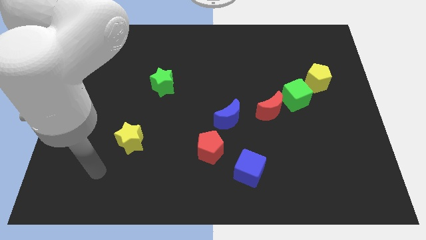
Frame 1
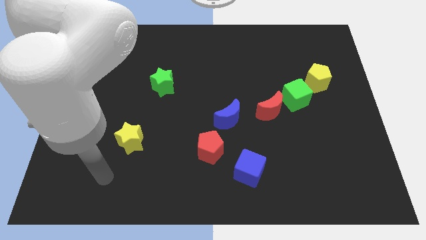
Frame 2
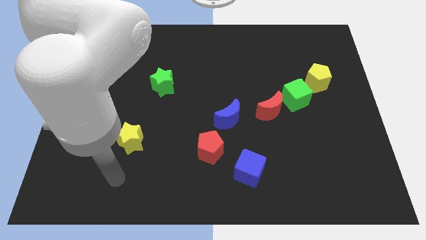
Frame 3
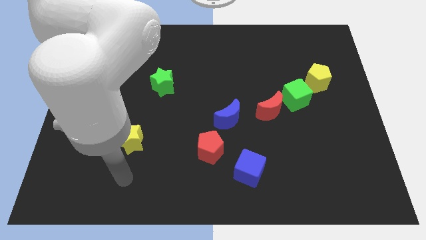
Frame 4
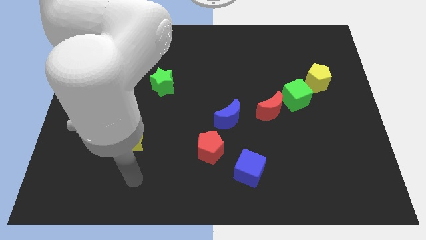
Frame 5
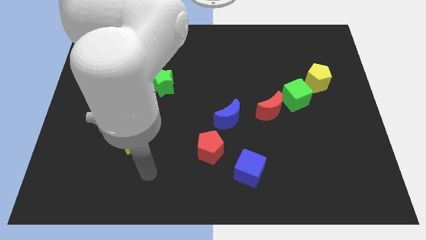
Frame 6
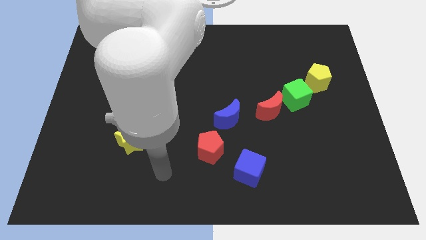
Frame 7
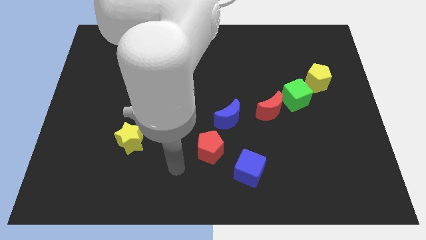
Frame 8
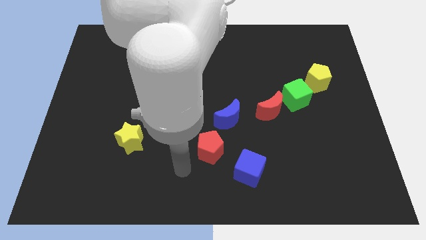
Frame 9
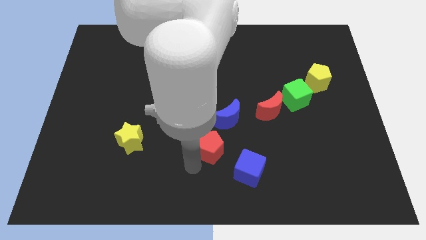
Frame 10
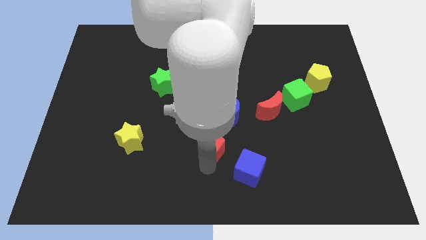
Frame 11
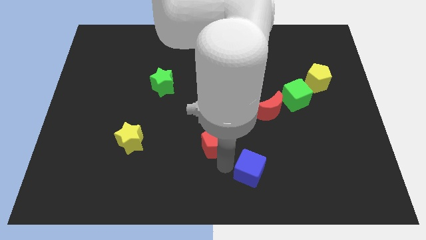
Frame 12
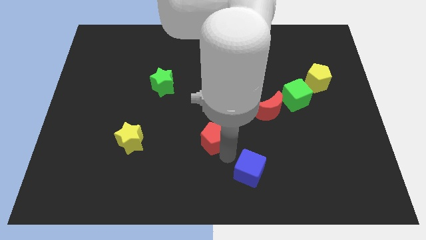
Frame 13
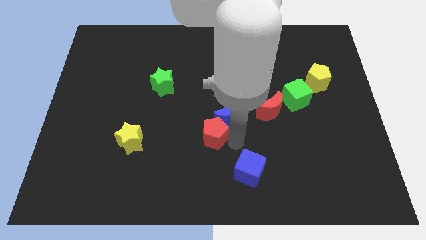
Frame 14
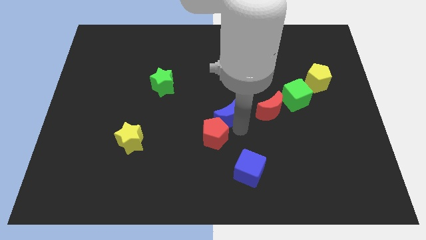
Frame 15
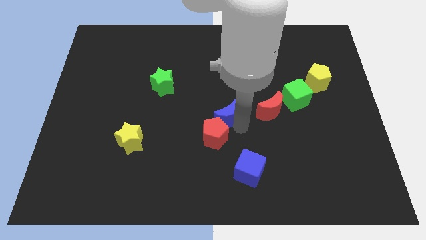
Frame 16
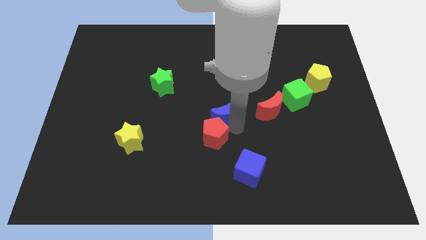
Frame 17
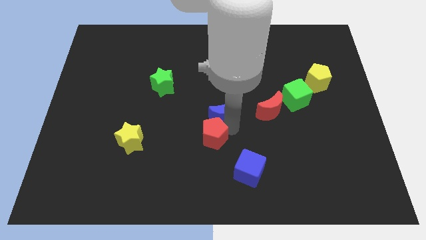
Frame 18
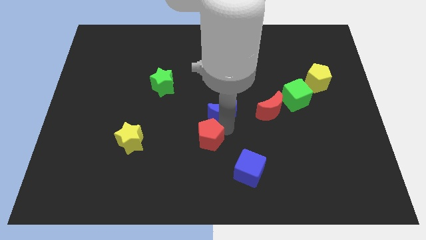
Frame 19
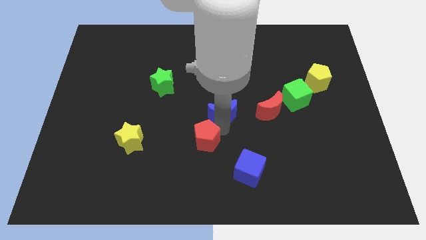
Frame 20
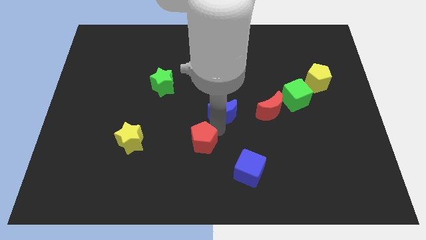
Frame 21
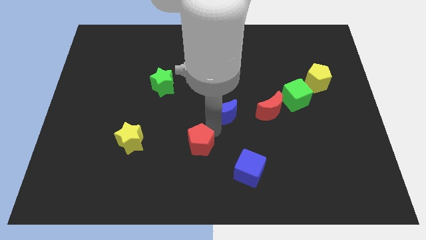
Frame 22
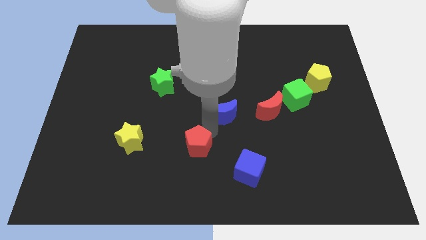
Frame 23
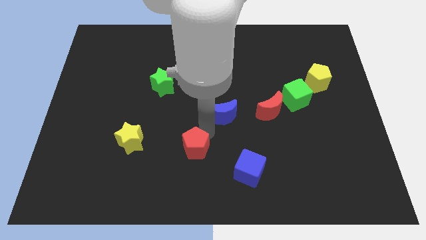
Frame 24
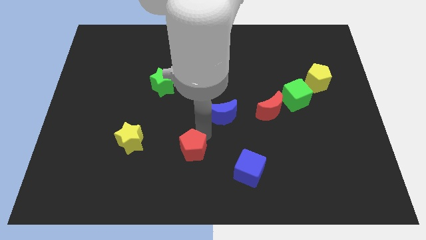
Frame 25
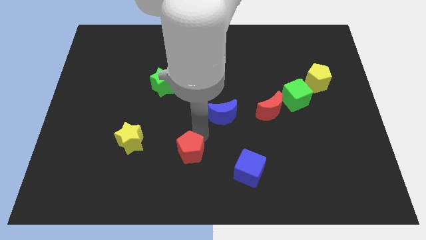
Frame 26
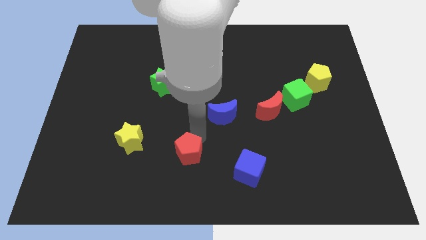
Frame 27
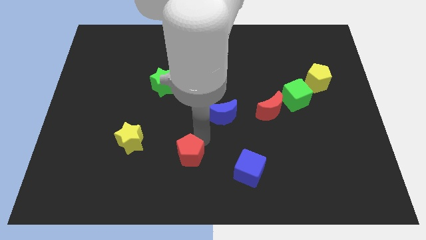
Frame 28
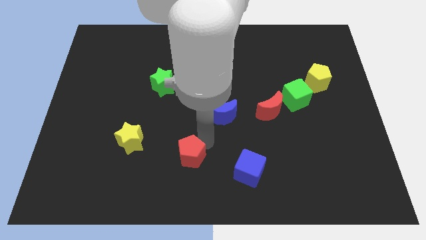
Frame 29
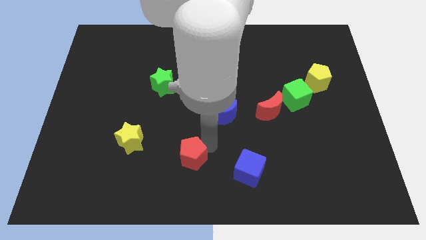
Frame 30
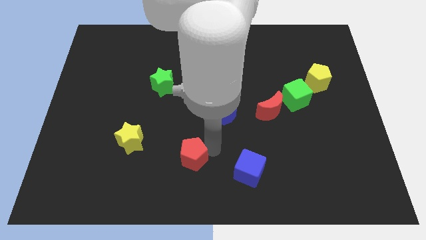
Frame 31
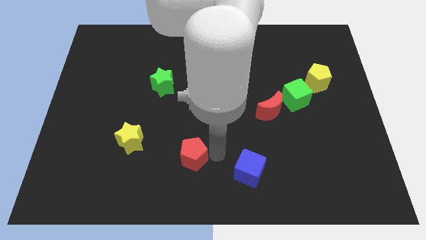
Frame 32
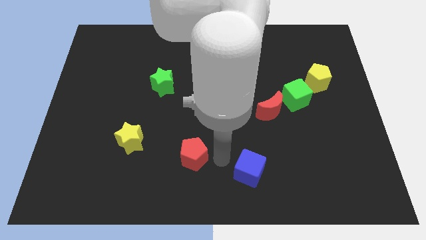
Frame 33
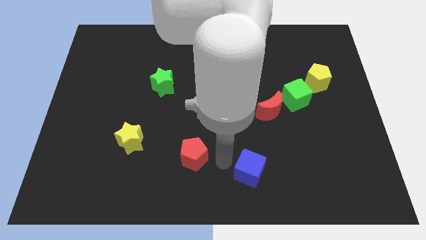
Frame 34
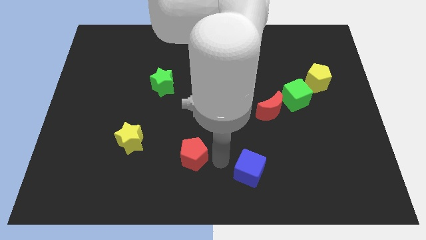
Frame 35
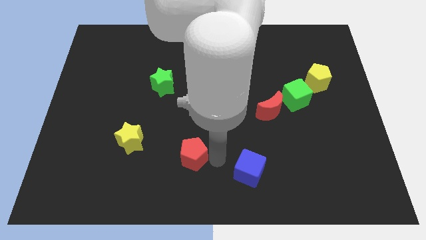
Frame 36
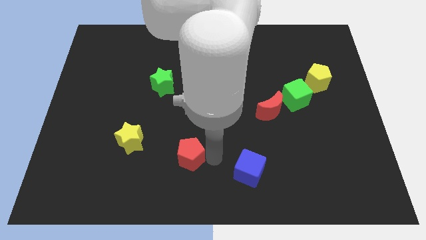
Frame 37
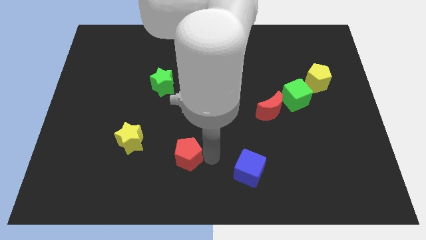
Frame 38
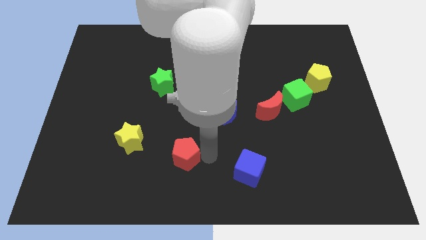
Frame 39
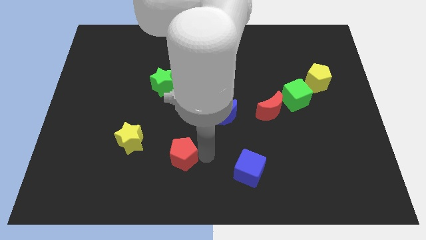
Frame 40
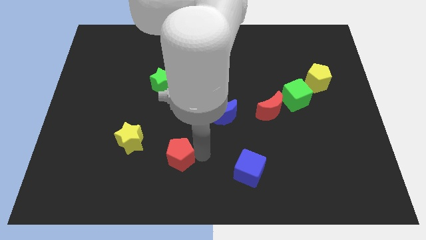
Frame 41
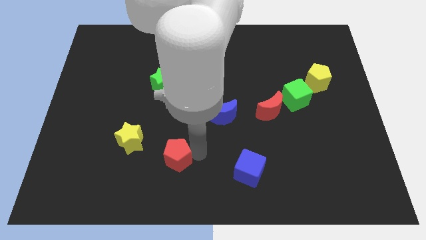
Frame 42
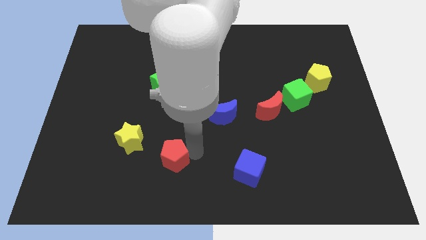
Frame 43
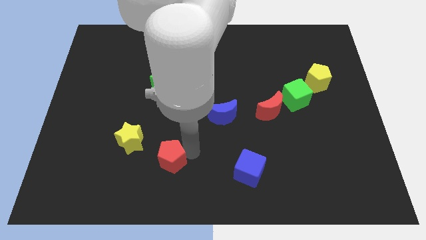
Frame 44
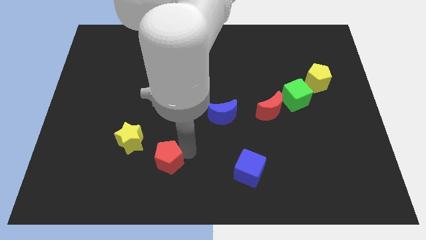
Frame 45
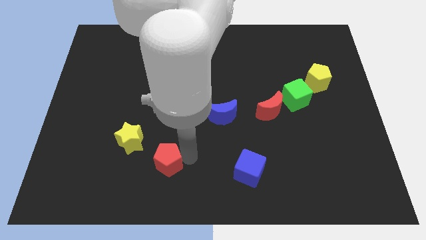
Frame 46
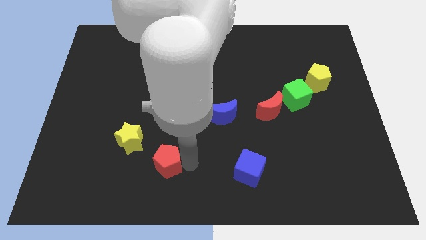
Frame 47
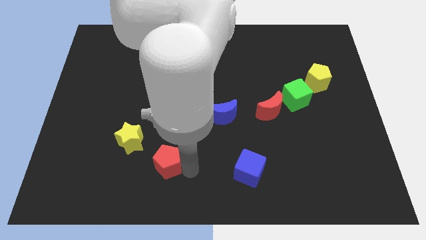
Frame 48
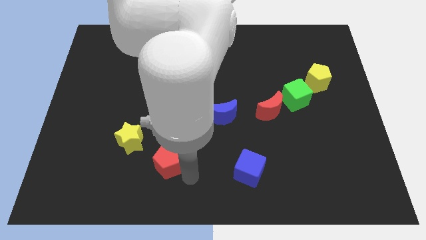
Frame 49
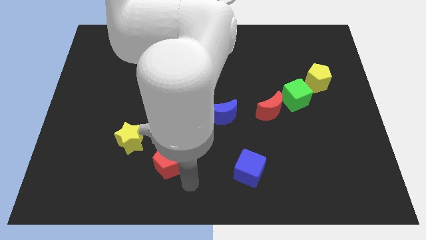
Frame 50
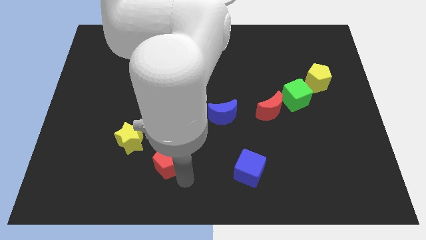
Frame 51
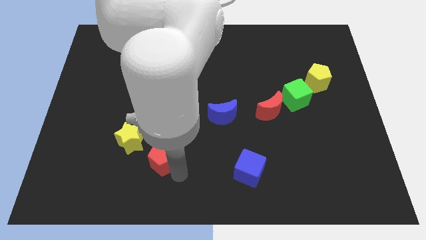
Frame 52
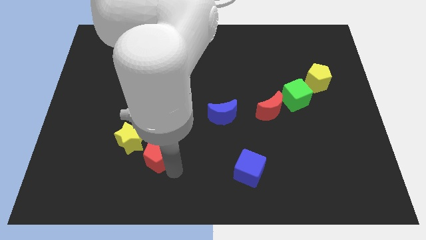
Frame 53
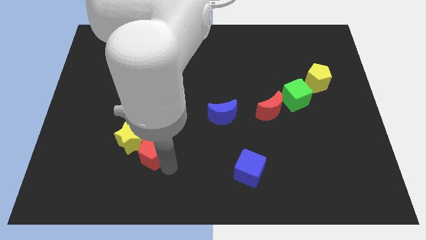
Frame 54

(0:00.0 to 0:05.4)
push the red pentagon towards the yellow star

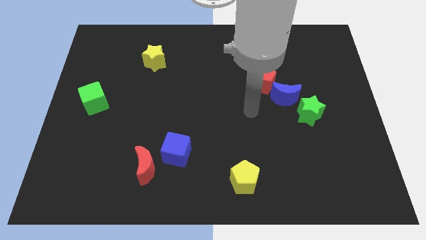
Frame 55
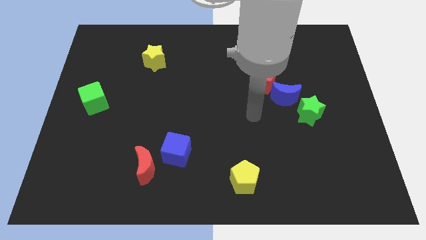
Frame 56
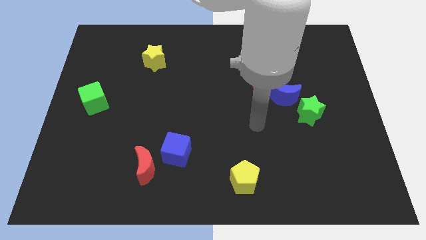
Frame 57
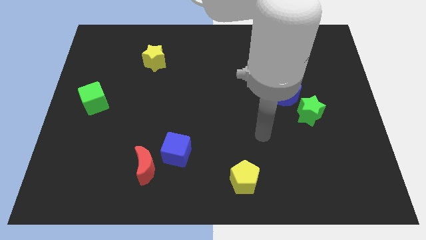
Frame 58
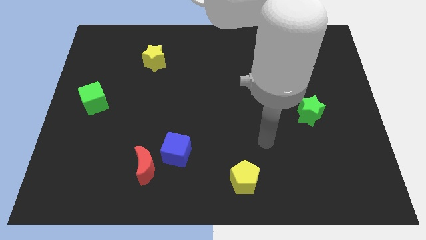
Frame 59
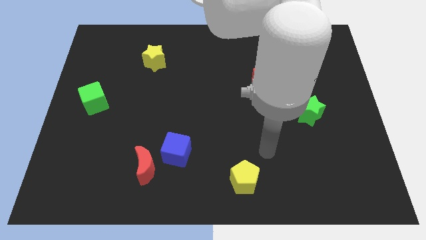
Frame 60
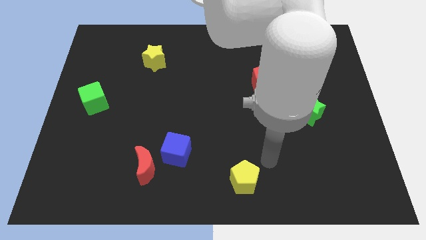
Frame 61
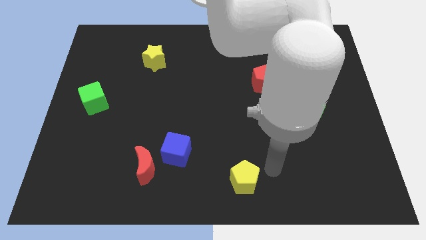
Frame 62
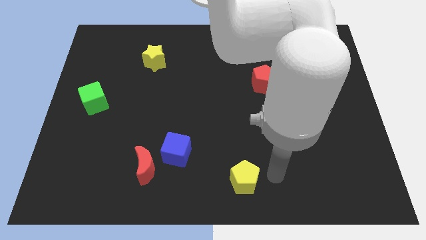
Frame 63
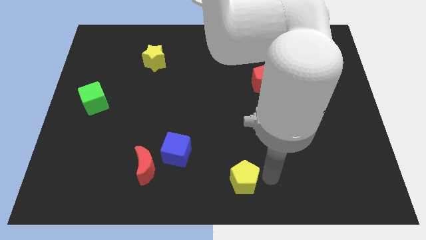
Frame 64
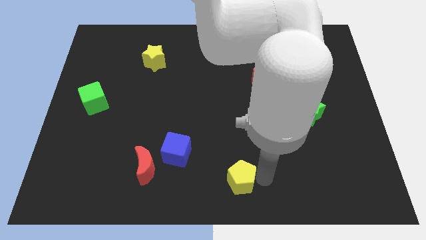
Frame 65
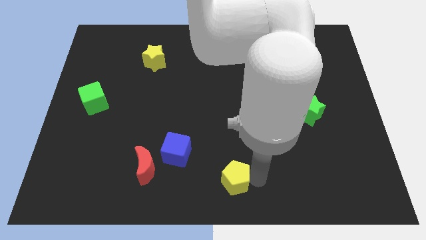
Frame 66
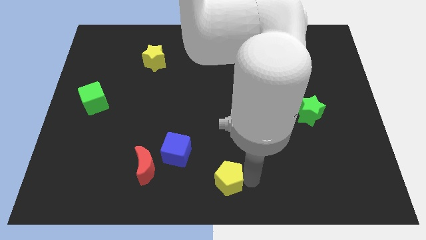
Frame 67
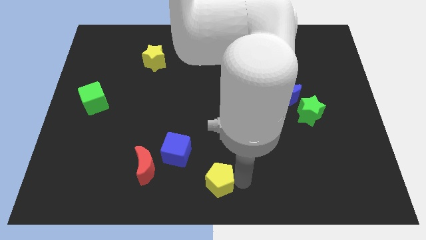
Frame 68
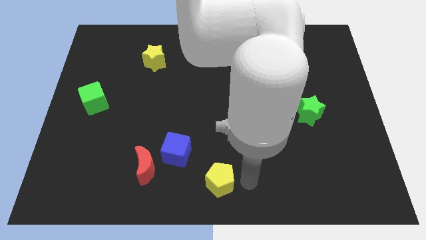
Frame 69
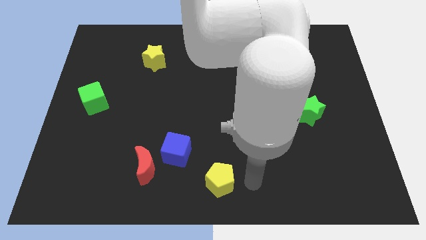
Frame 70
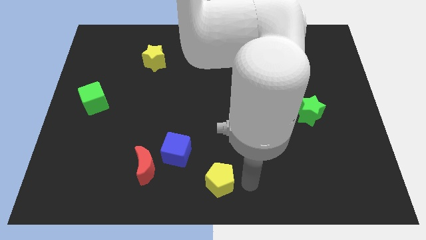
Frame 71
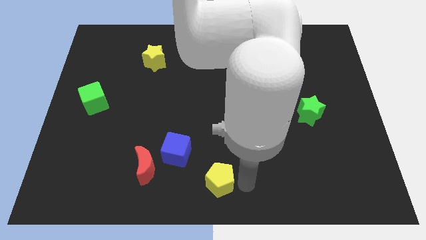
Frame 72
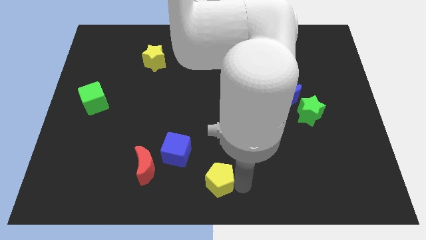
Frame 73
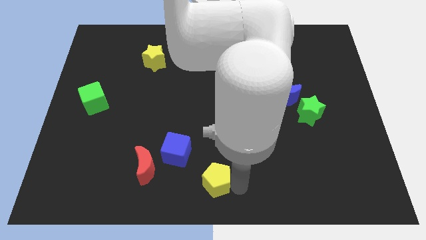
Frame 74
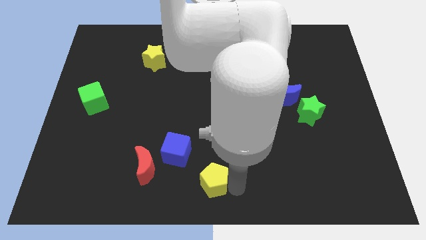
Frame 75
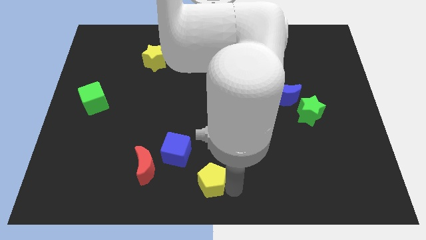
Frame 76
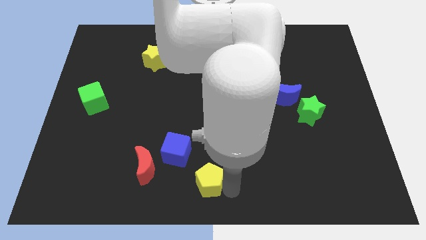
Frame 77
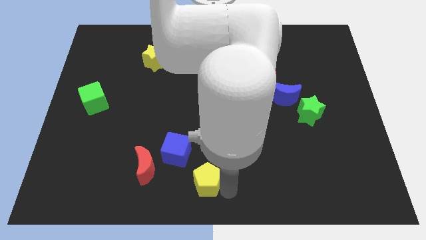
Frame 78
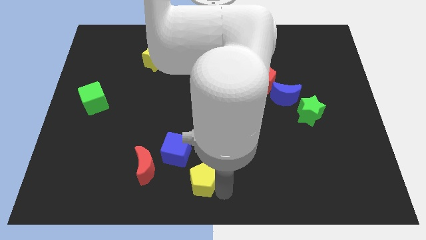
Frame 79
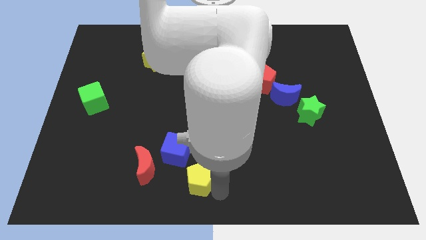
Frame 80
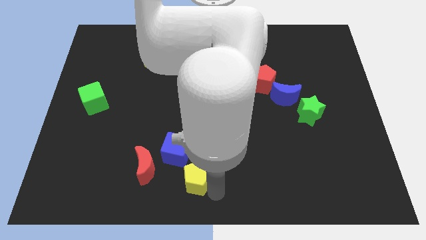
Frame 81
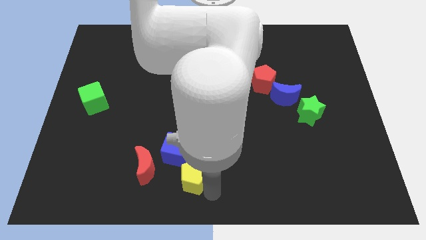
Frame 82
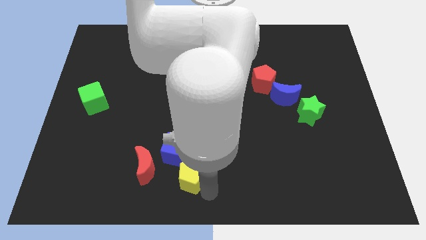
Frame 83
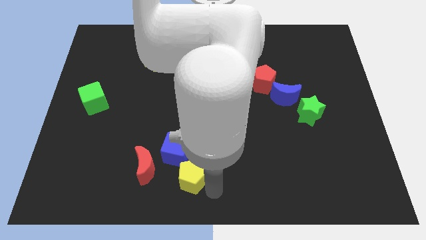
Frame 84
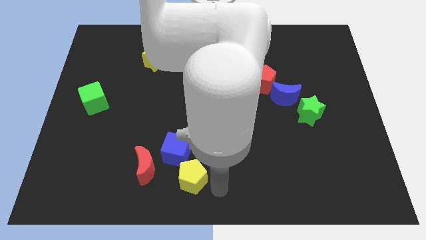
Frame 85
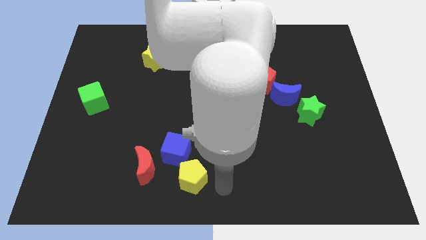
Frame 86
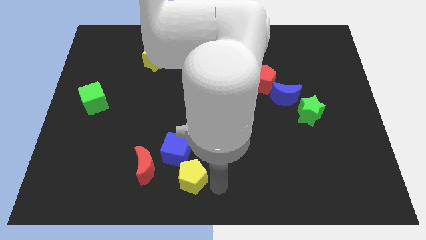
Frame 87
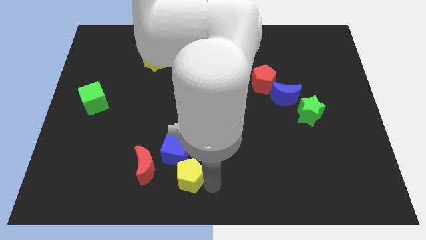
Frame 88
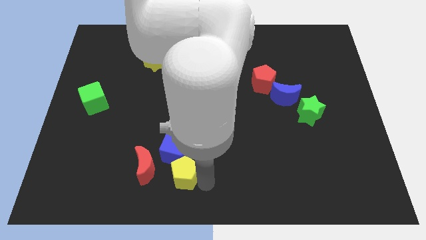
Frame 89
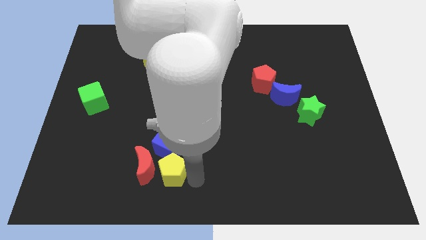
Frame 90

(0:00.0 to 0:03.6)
put the yellow pentagon next to the red moon
